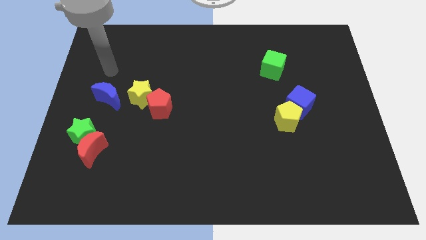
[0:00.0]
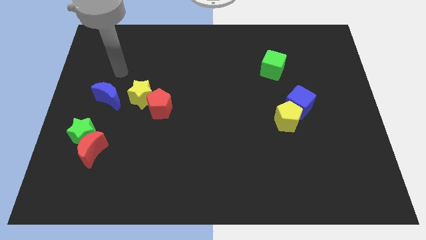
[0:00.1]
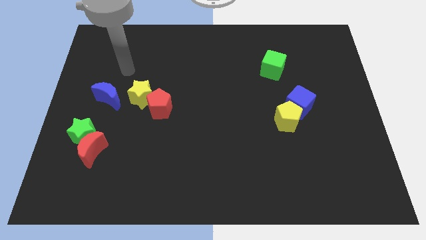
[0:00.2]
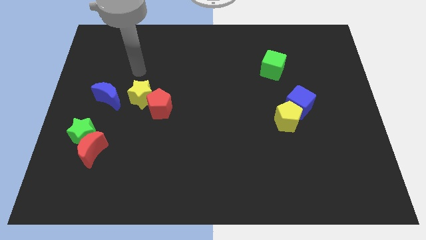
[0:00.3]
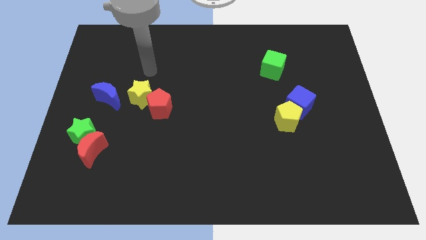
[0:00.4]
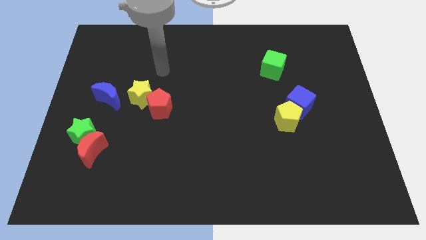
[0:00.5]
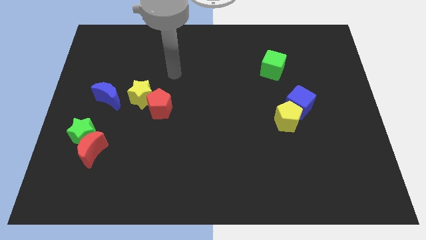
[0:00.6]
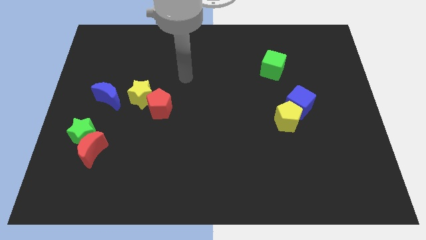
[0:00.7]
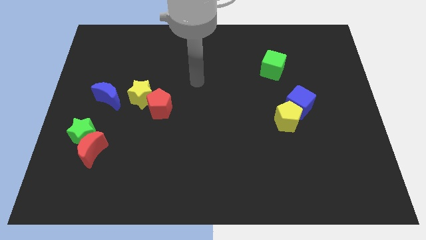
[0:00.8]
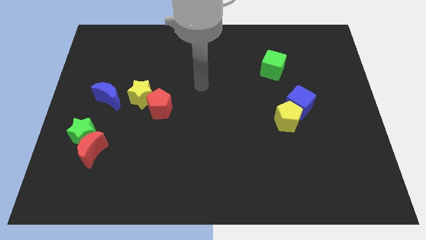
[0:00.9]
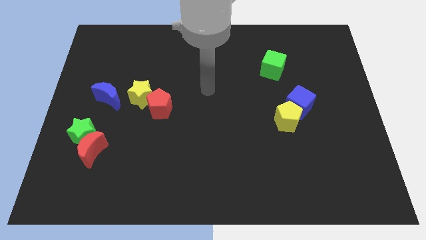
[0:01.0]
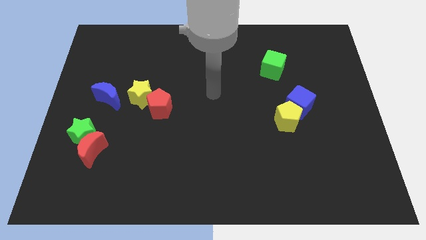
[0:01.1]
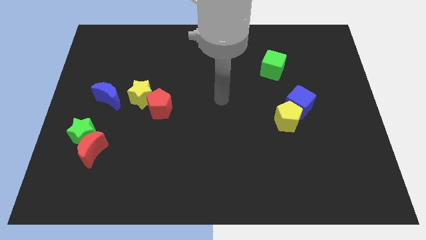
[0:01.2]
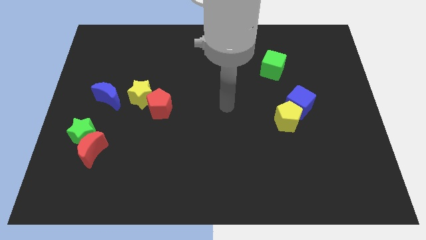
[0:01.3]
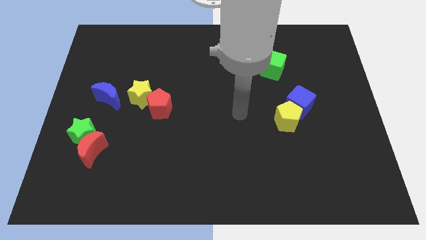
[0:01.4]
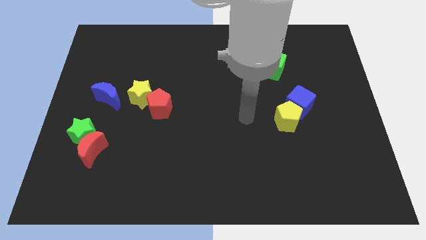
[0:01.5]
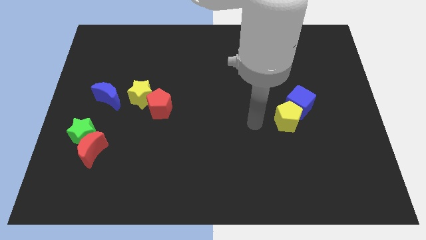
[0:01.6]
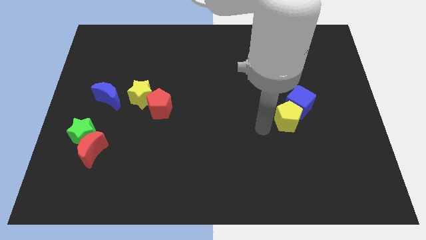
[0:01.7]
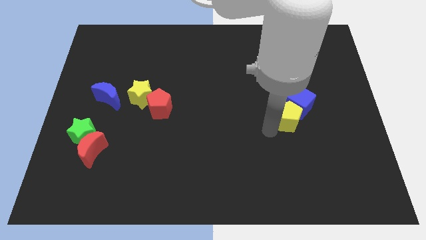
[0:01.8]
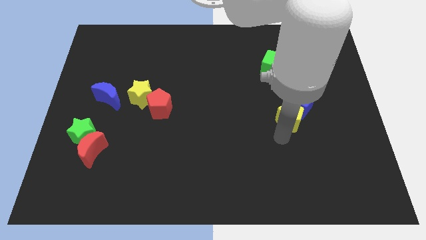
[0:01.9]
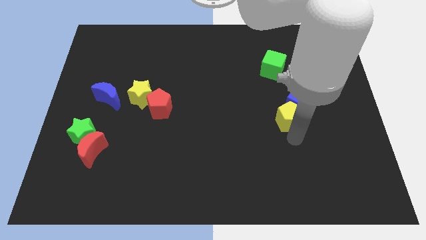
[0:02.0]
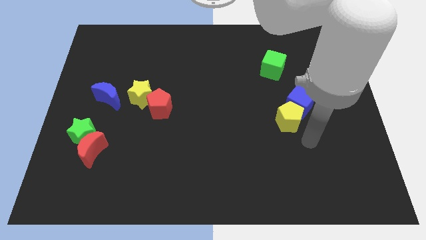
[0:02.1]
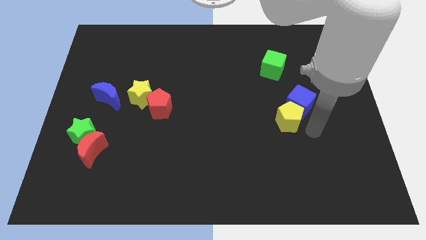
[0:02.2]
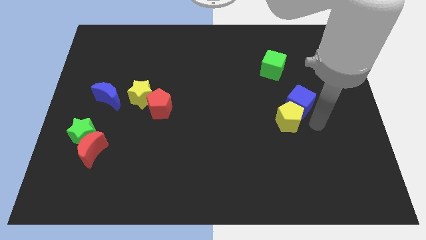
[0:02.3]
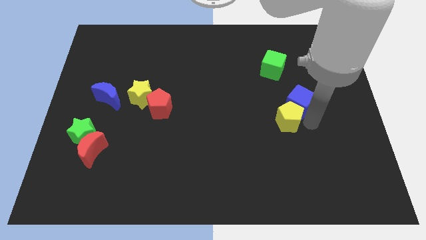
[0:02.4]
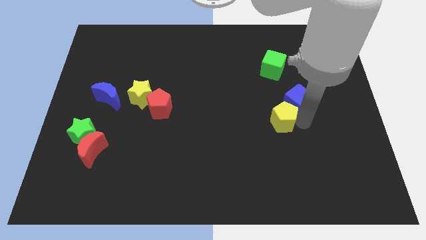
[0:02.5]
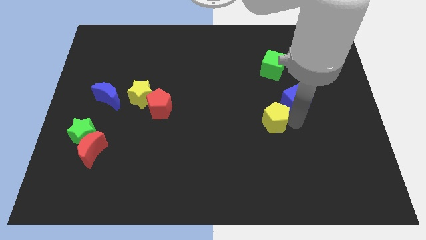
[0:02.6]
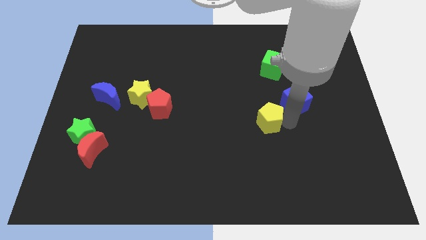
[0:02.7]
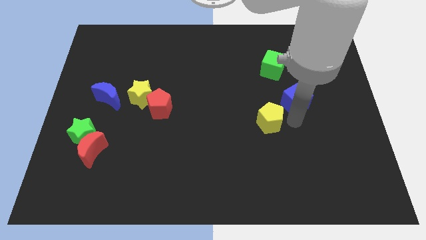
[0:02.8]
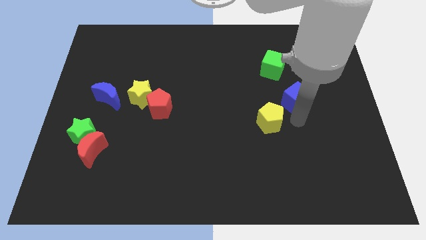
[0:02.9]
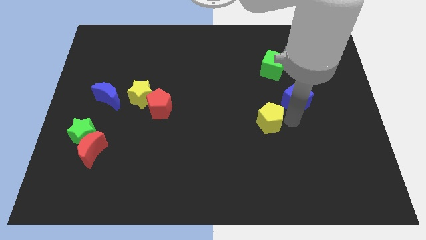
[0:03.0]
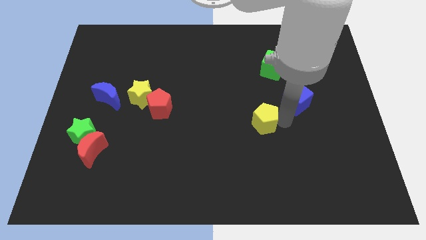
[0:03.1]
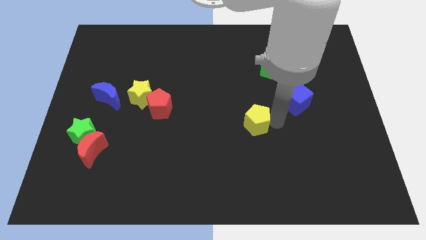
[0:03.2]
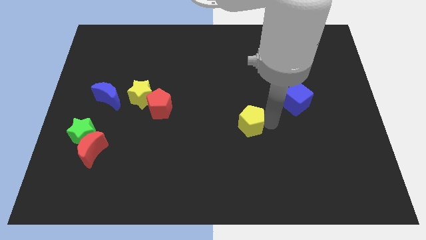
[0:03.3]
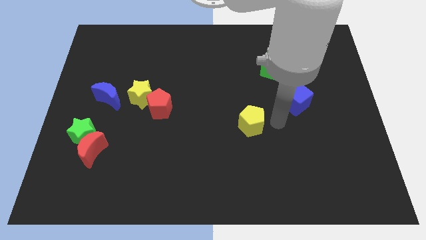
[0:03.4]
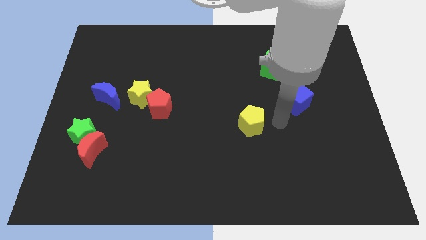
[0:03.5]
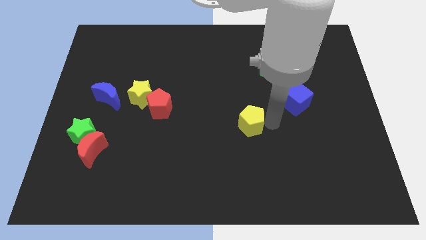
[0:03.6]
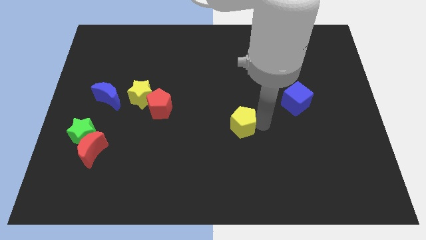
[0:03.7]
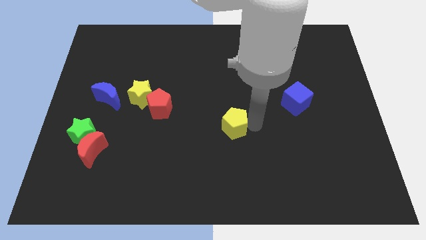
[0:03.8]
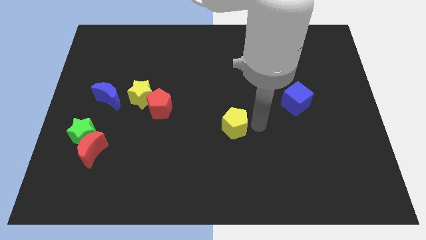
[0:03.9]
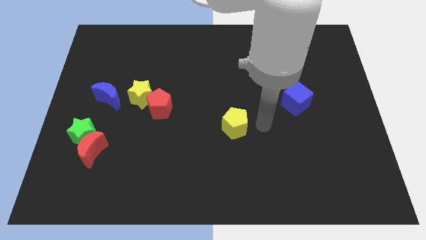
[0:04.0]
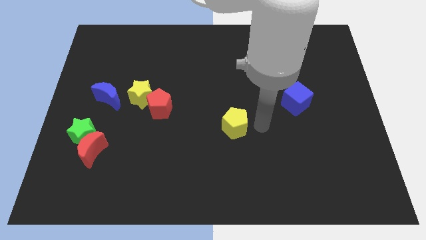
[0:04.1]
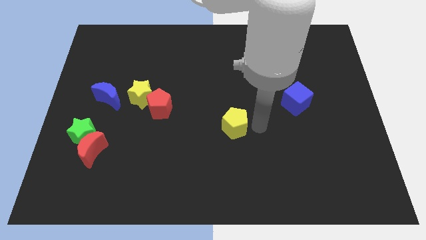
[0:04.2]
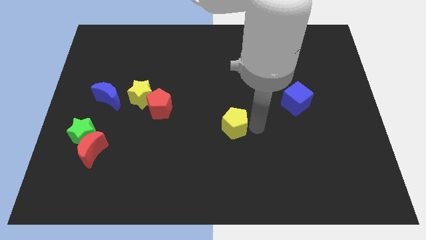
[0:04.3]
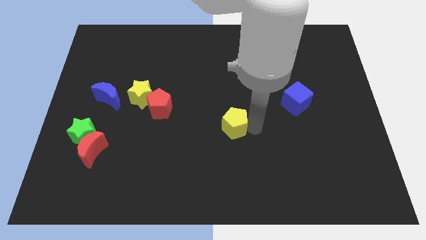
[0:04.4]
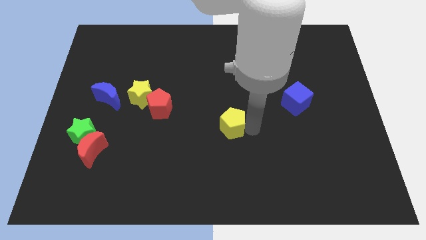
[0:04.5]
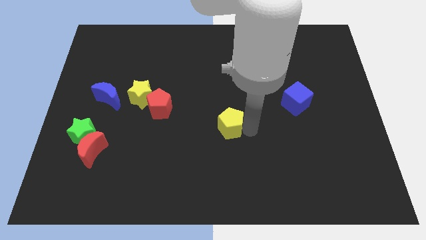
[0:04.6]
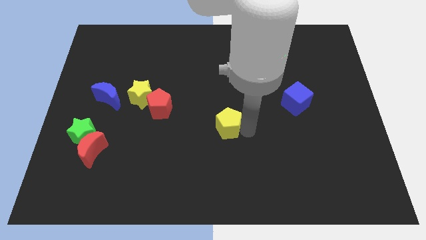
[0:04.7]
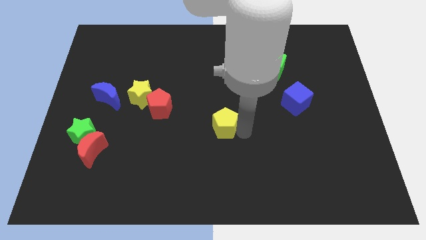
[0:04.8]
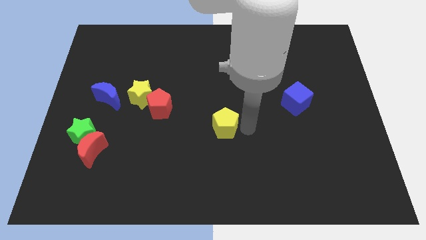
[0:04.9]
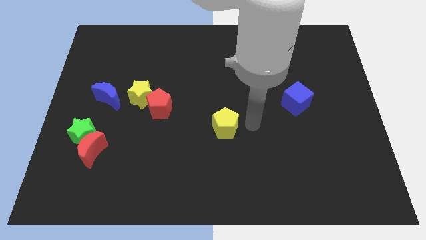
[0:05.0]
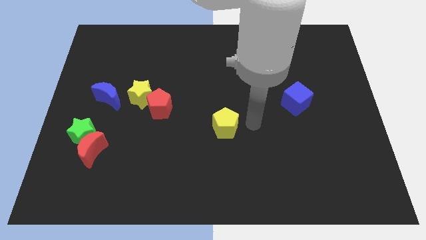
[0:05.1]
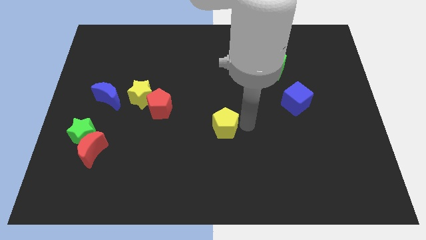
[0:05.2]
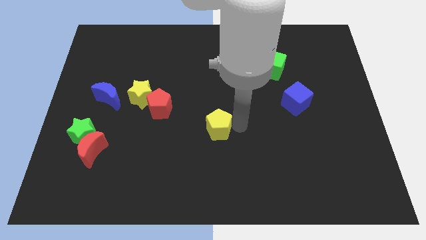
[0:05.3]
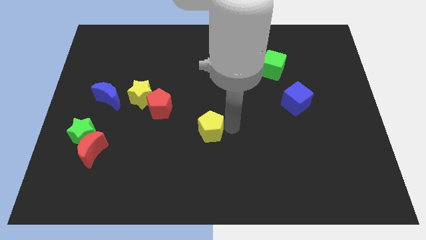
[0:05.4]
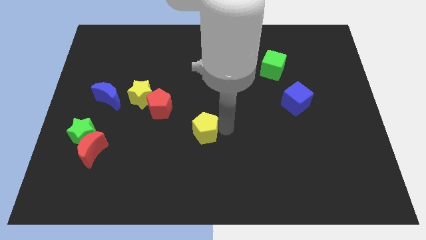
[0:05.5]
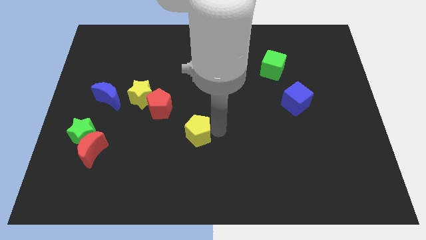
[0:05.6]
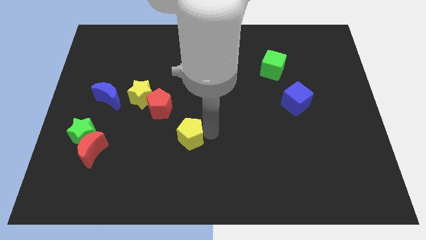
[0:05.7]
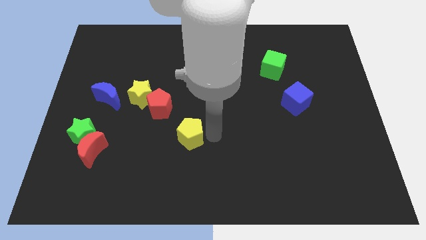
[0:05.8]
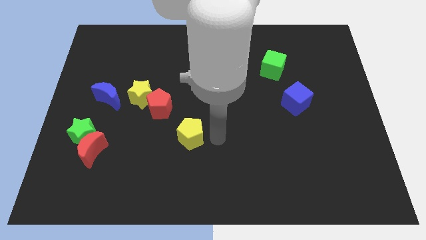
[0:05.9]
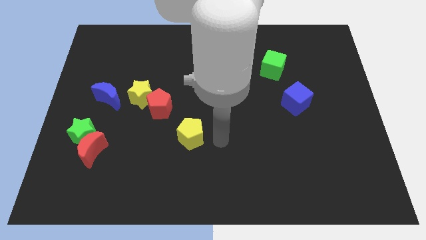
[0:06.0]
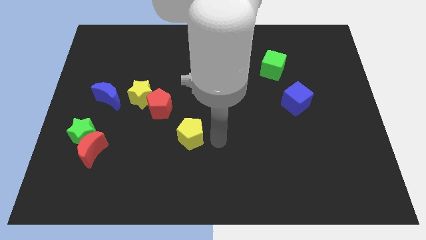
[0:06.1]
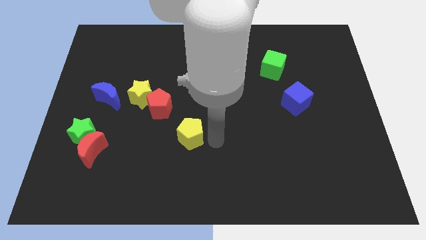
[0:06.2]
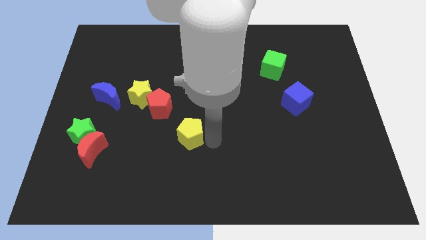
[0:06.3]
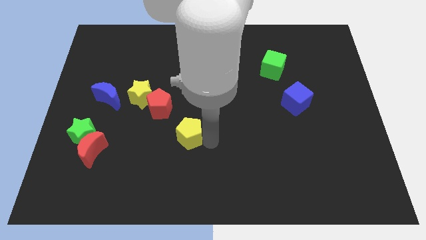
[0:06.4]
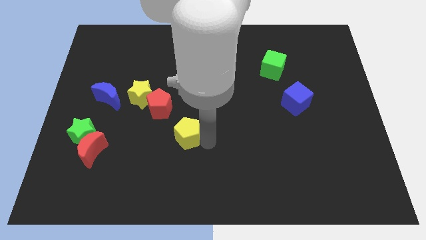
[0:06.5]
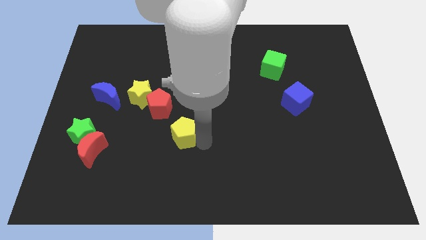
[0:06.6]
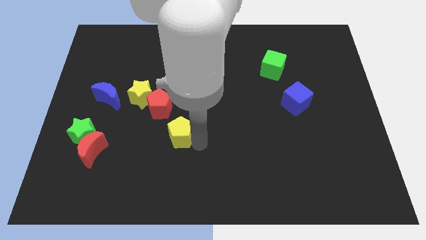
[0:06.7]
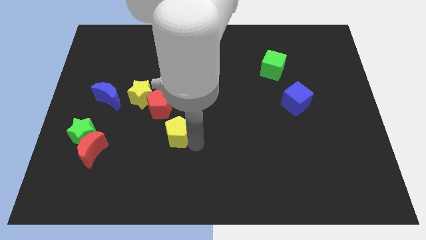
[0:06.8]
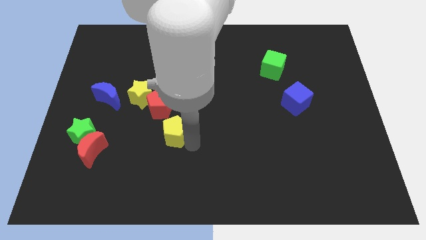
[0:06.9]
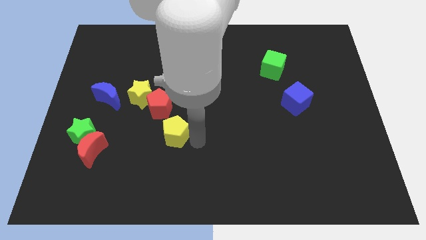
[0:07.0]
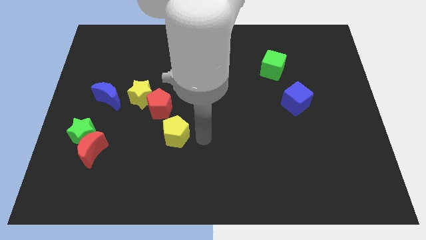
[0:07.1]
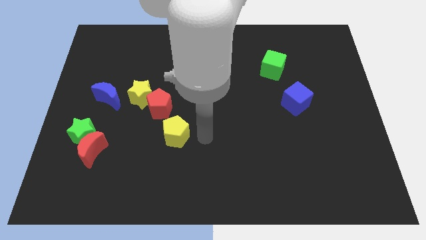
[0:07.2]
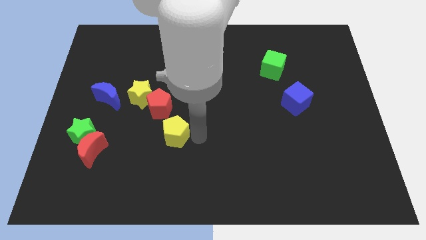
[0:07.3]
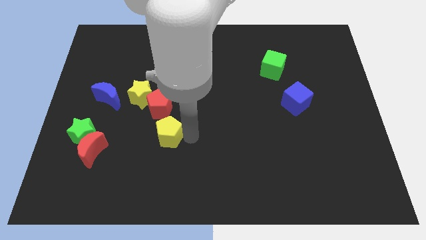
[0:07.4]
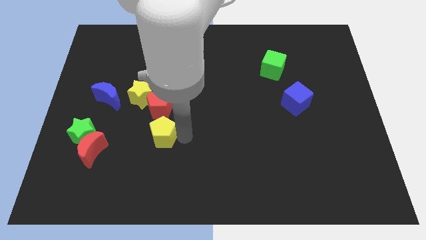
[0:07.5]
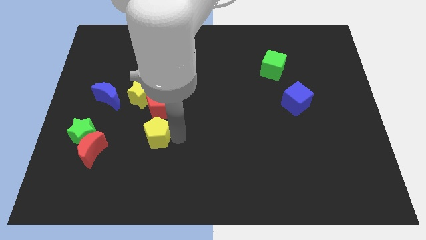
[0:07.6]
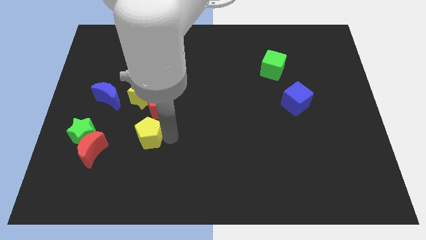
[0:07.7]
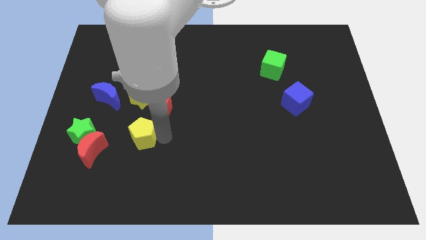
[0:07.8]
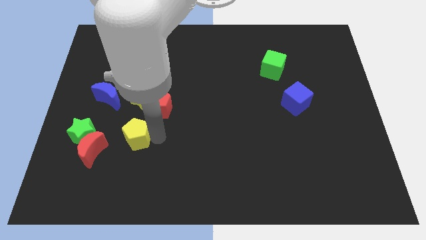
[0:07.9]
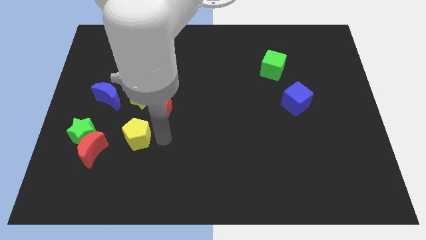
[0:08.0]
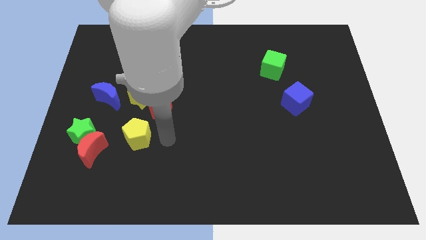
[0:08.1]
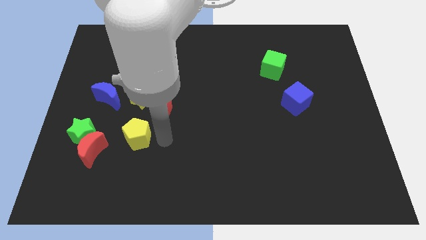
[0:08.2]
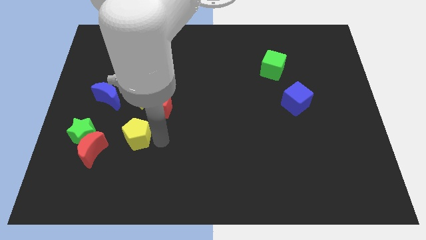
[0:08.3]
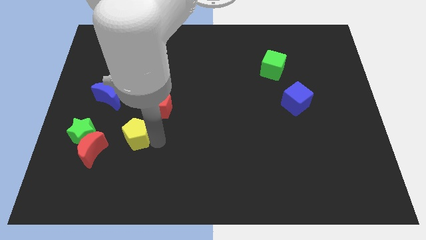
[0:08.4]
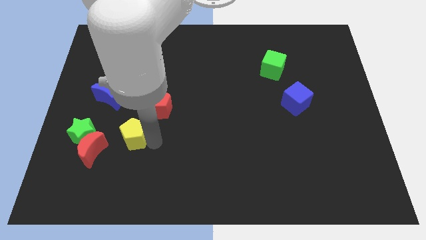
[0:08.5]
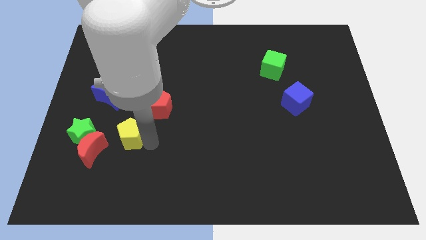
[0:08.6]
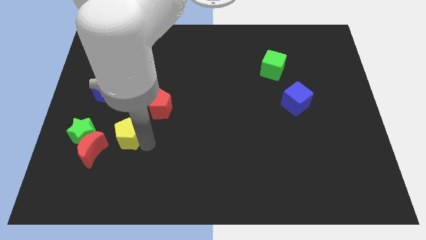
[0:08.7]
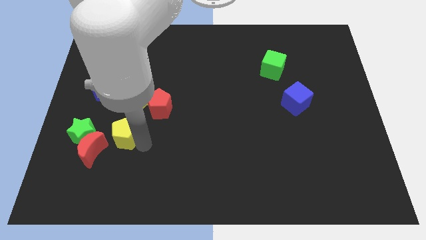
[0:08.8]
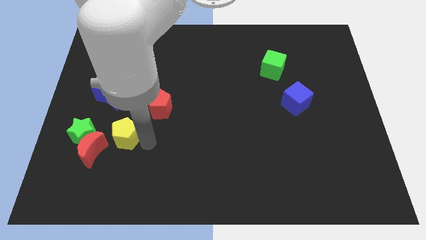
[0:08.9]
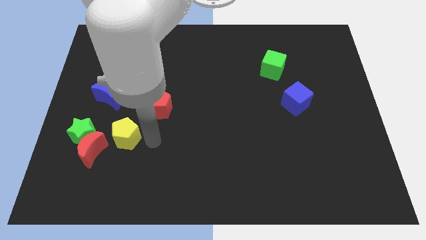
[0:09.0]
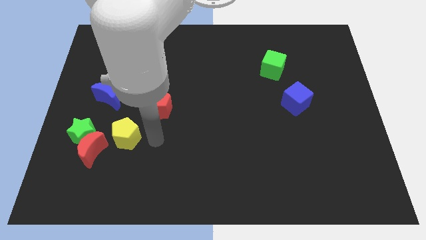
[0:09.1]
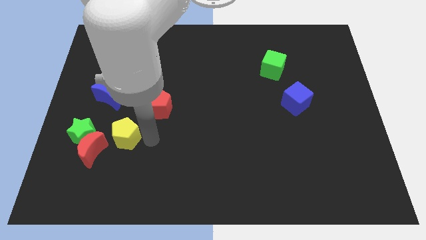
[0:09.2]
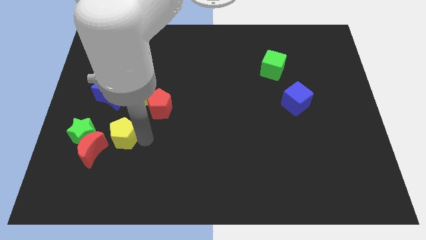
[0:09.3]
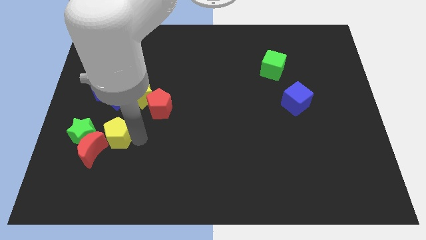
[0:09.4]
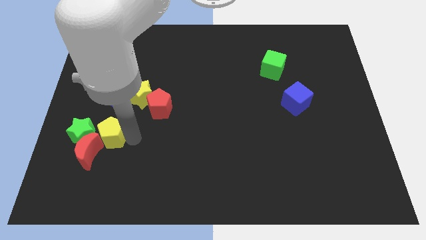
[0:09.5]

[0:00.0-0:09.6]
slide the yellow pentagon close to the green star
